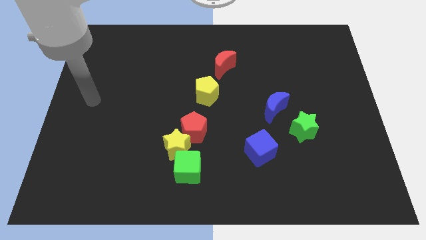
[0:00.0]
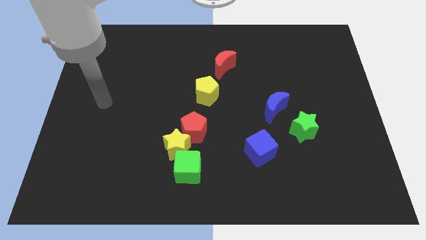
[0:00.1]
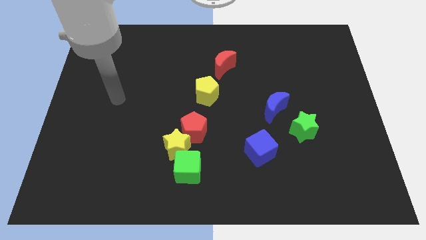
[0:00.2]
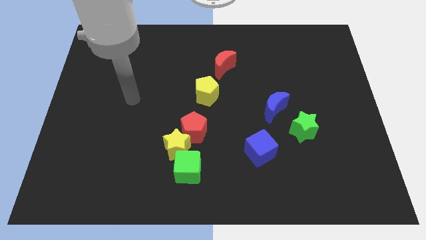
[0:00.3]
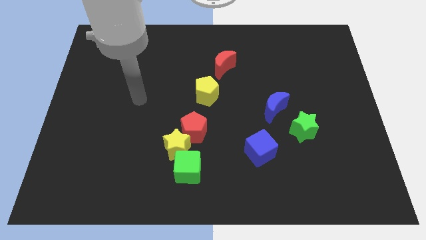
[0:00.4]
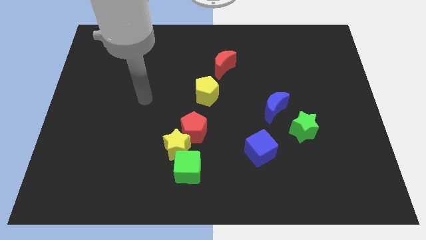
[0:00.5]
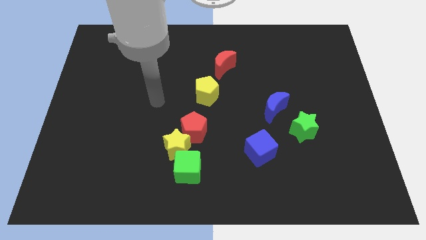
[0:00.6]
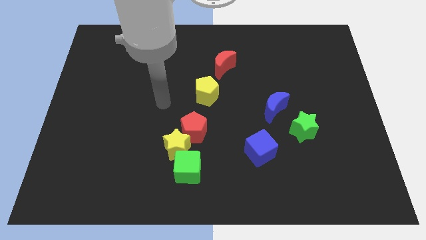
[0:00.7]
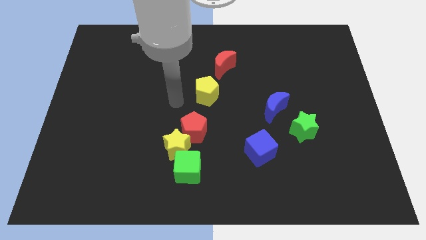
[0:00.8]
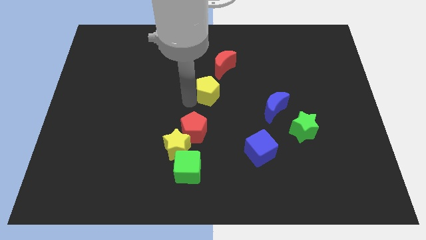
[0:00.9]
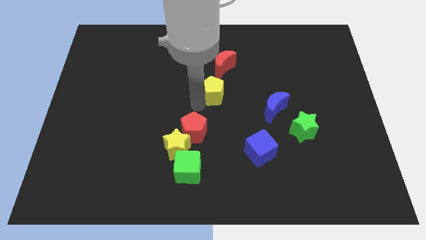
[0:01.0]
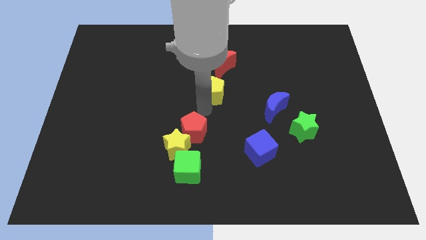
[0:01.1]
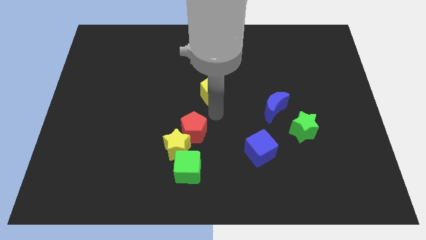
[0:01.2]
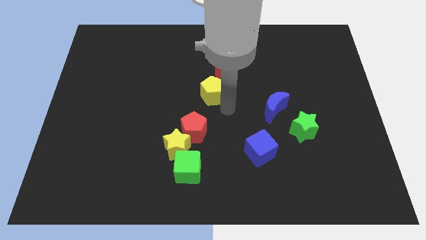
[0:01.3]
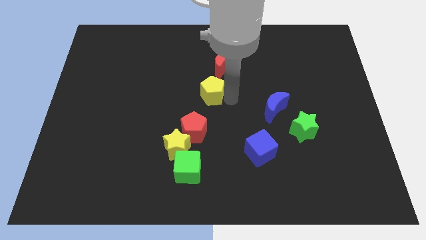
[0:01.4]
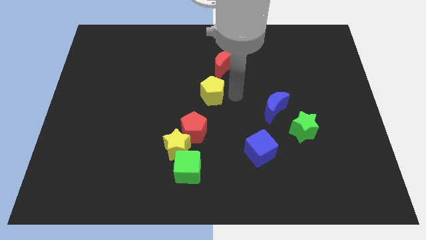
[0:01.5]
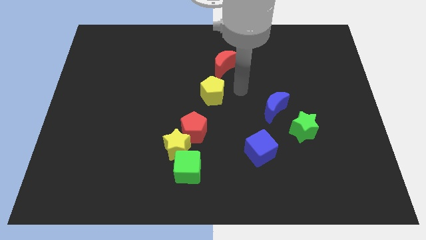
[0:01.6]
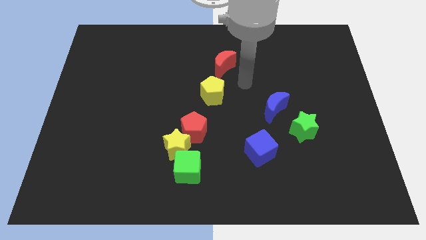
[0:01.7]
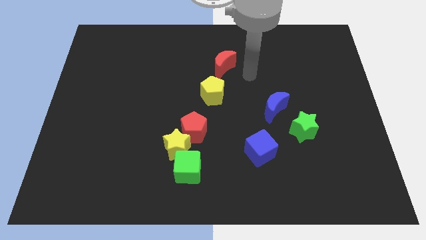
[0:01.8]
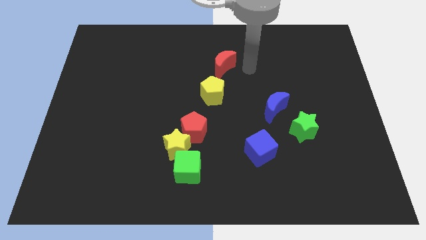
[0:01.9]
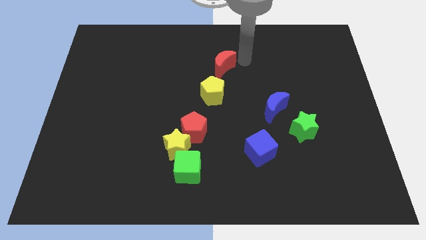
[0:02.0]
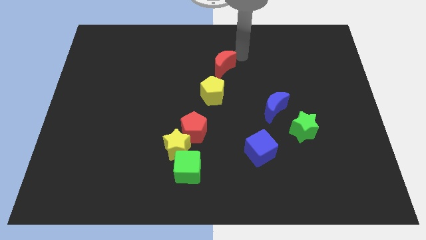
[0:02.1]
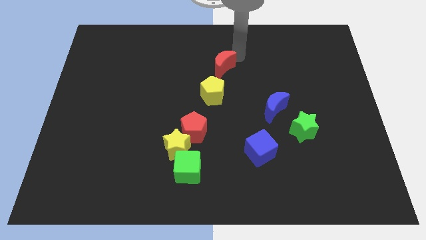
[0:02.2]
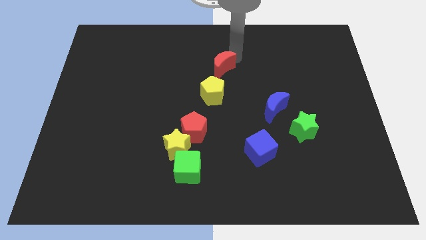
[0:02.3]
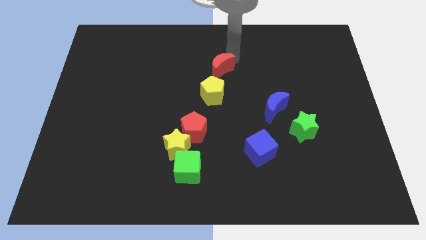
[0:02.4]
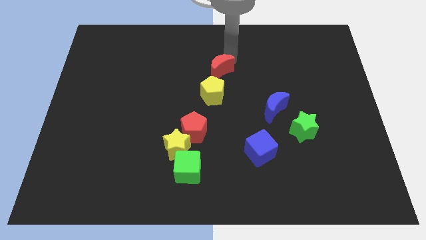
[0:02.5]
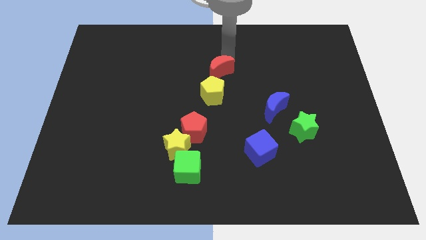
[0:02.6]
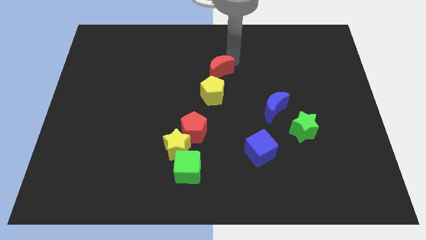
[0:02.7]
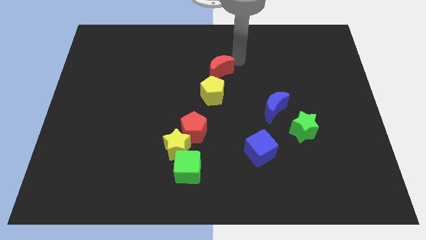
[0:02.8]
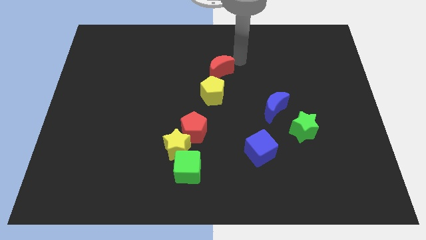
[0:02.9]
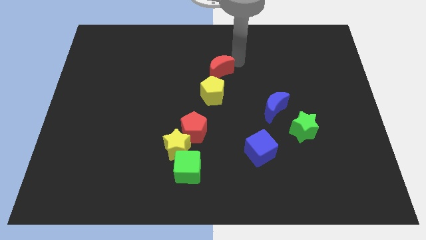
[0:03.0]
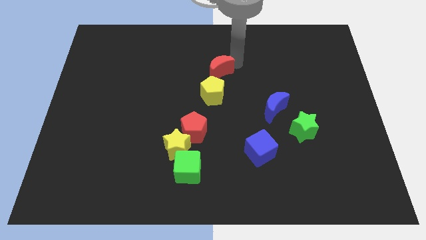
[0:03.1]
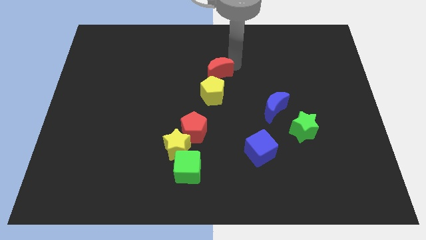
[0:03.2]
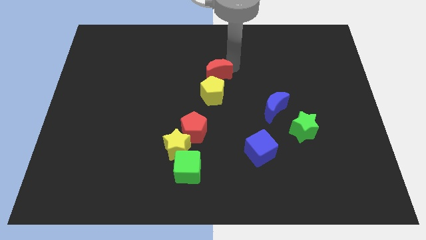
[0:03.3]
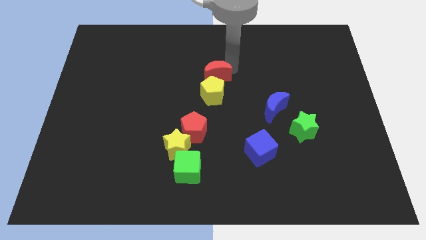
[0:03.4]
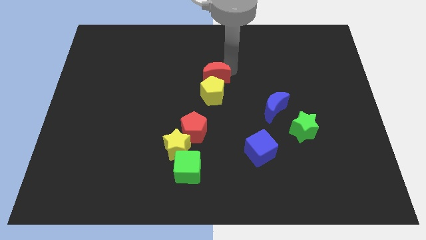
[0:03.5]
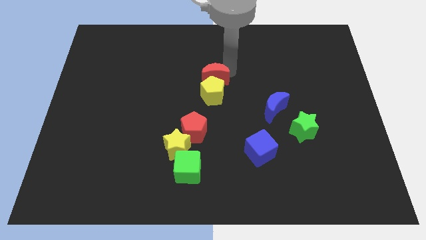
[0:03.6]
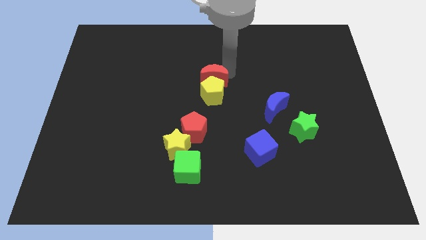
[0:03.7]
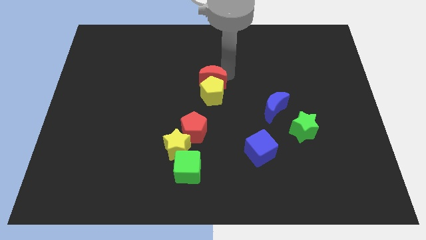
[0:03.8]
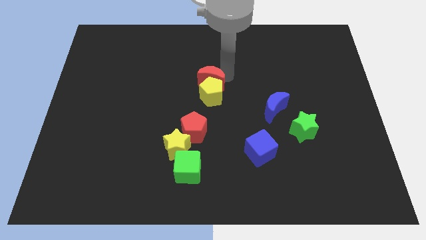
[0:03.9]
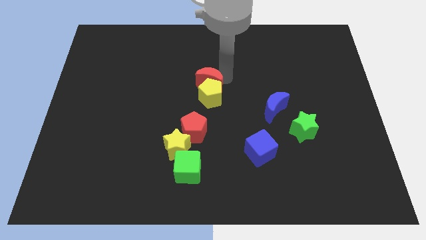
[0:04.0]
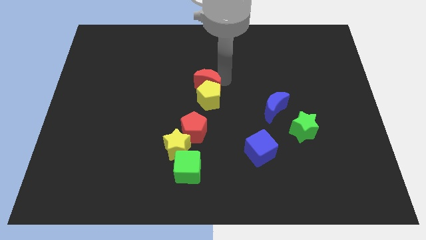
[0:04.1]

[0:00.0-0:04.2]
move the red moon downwards and left slightly

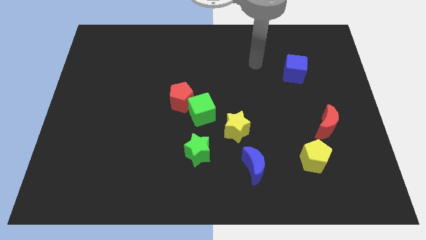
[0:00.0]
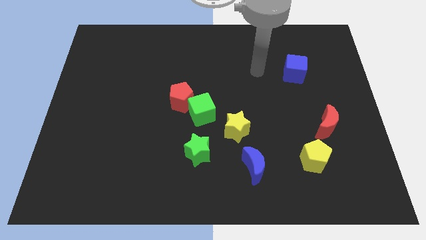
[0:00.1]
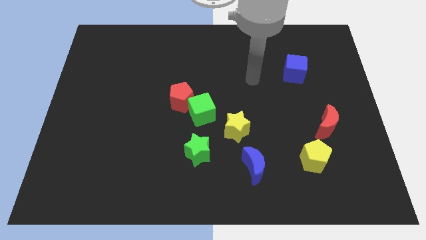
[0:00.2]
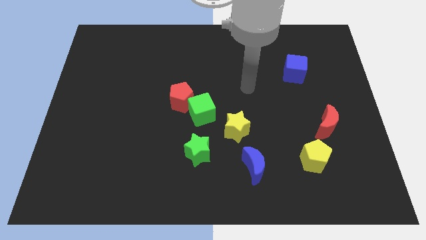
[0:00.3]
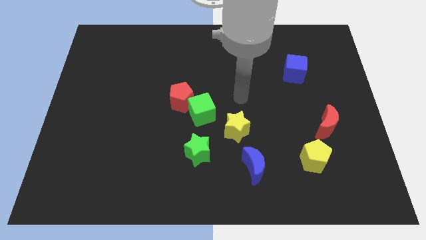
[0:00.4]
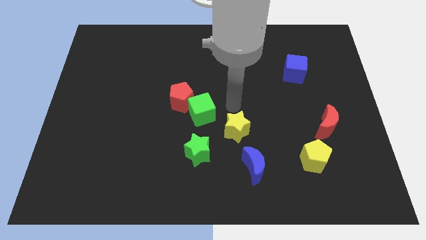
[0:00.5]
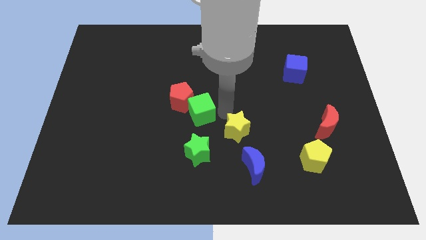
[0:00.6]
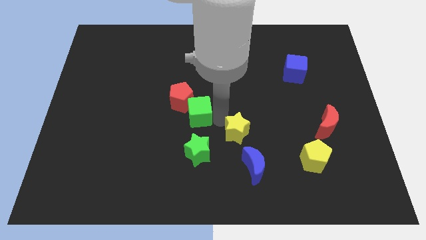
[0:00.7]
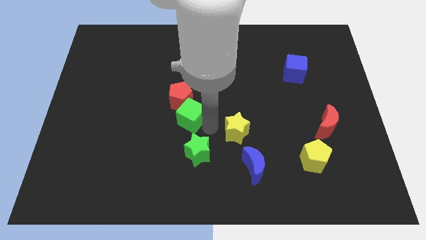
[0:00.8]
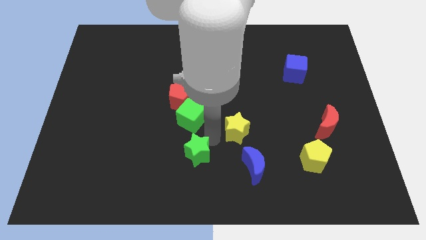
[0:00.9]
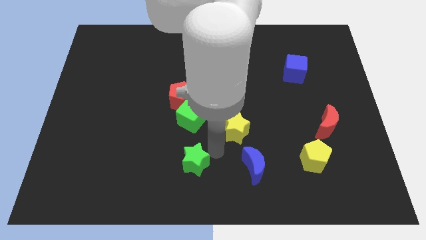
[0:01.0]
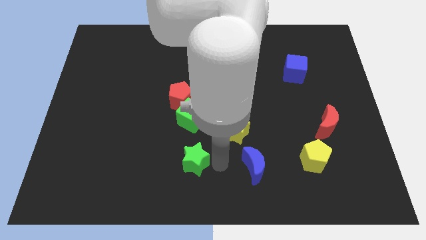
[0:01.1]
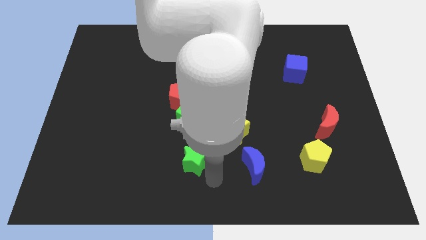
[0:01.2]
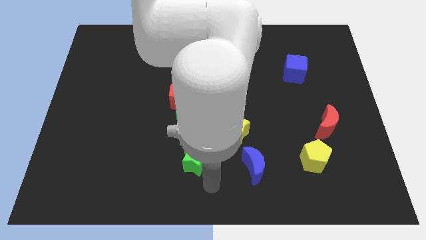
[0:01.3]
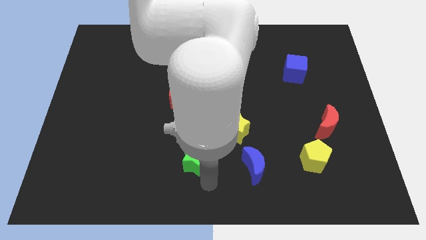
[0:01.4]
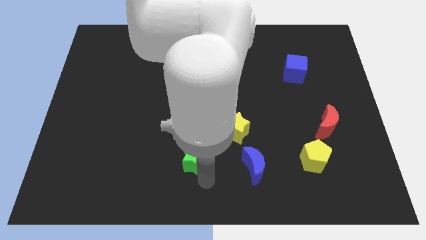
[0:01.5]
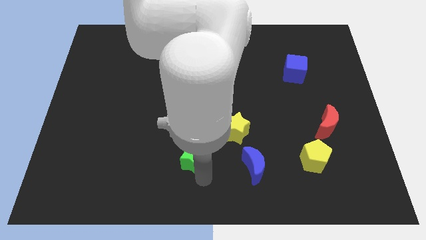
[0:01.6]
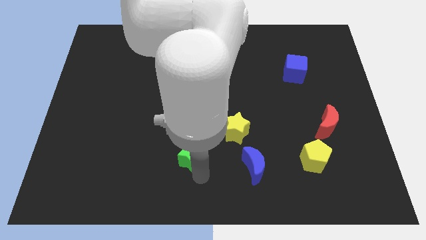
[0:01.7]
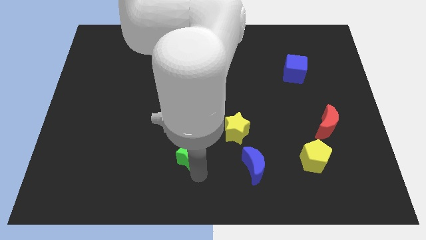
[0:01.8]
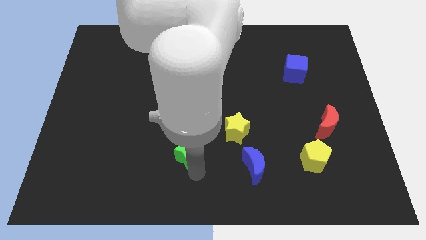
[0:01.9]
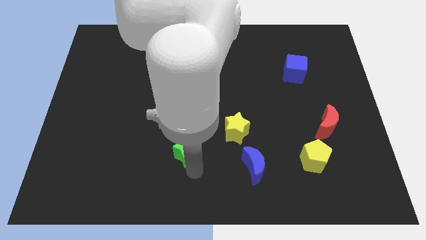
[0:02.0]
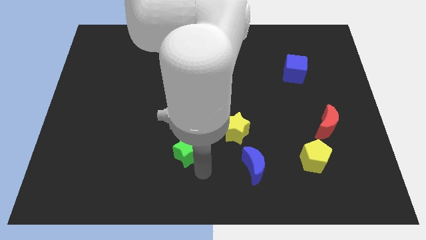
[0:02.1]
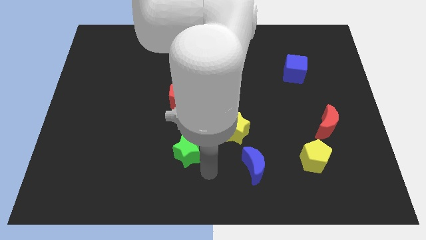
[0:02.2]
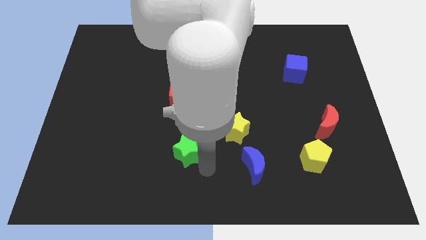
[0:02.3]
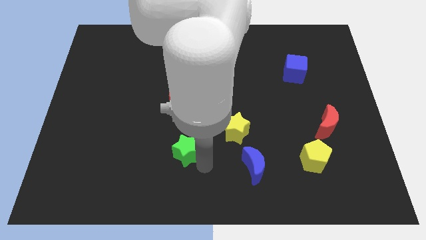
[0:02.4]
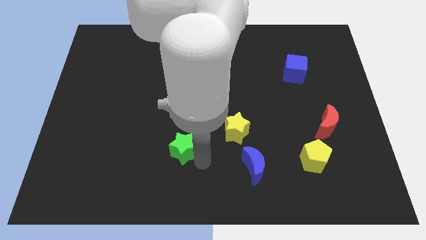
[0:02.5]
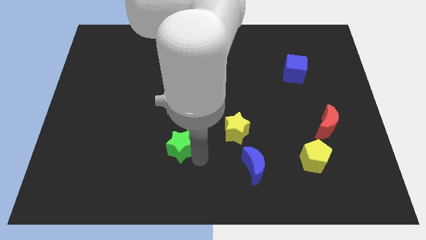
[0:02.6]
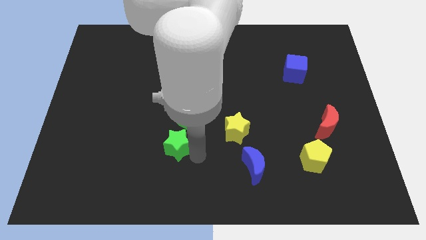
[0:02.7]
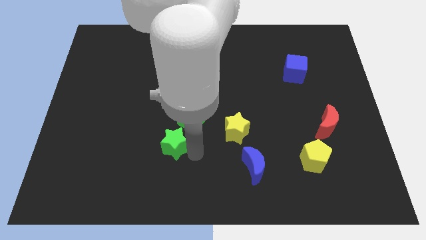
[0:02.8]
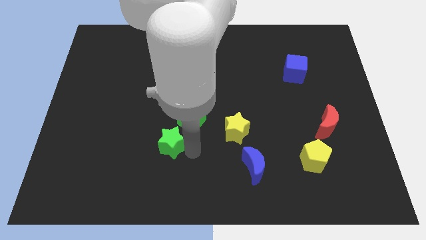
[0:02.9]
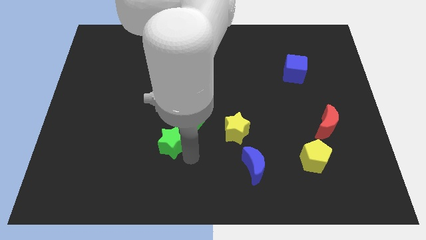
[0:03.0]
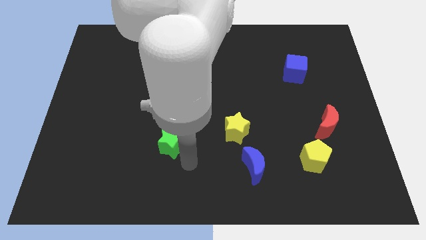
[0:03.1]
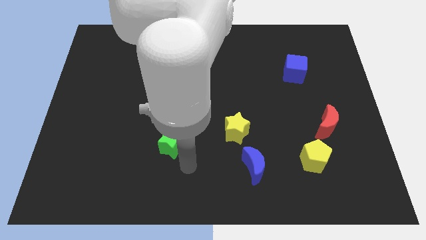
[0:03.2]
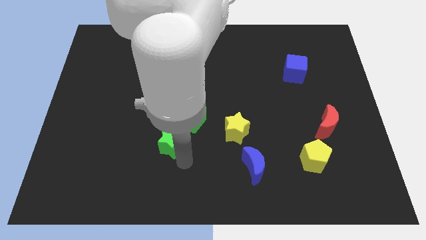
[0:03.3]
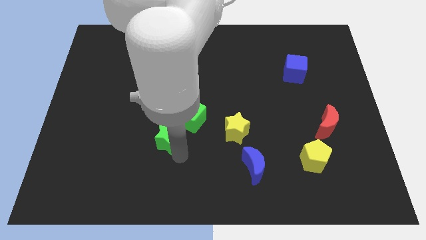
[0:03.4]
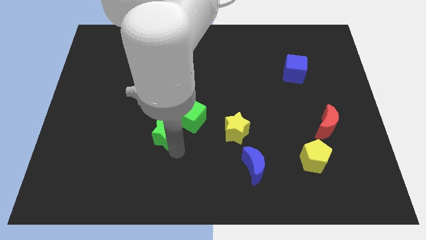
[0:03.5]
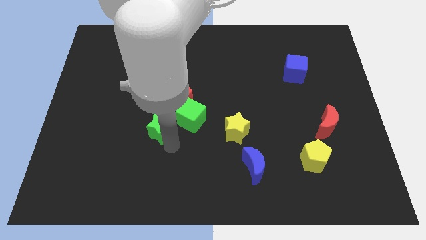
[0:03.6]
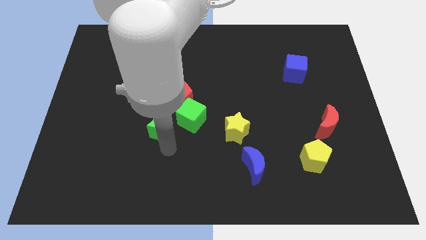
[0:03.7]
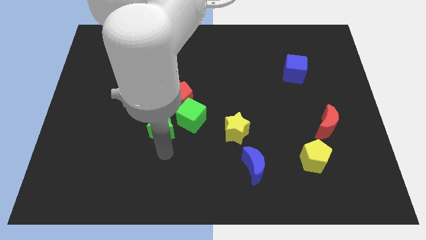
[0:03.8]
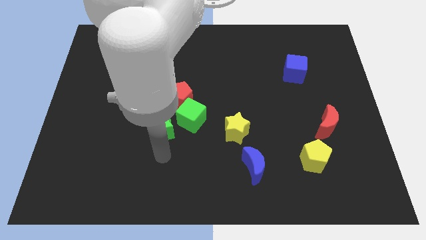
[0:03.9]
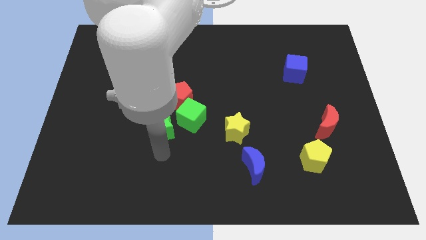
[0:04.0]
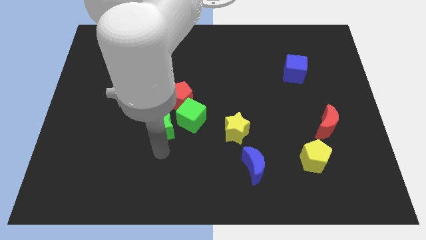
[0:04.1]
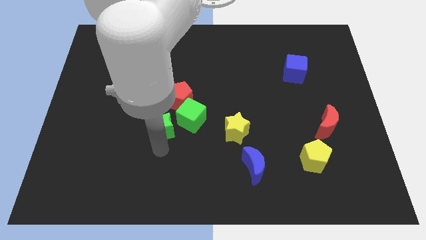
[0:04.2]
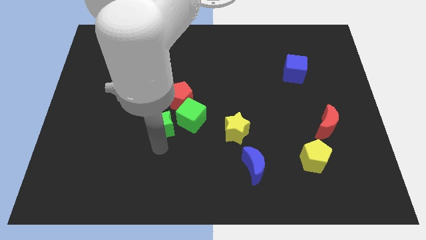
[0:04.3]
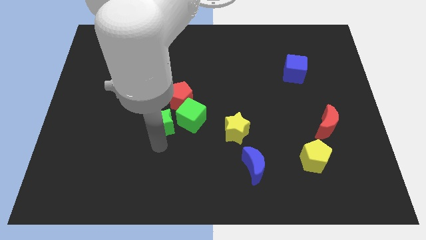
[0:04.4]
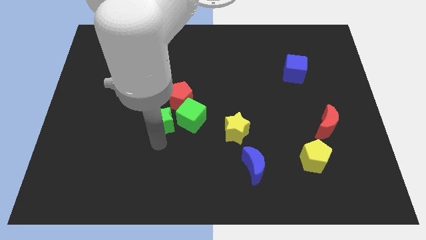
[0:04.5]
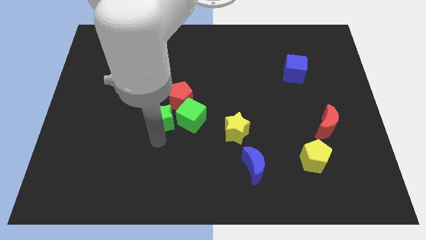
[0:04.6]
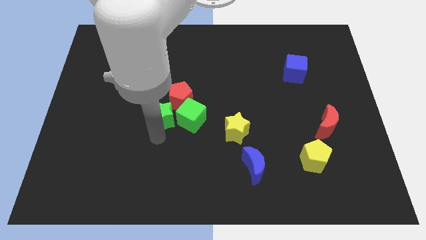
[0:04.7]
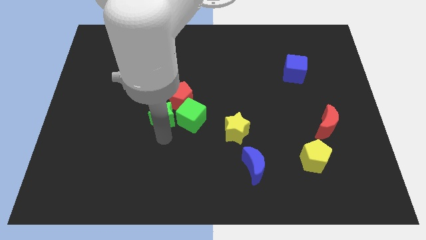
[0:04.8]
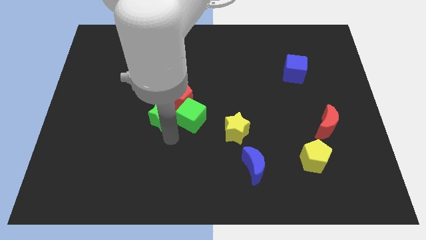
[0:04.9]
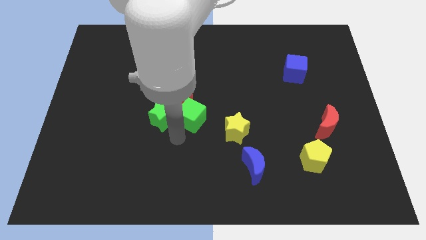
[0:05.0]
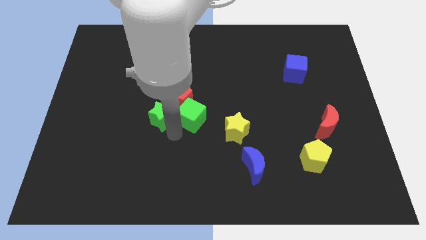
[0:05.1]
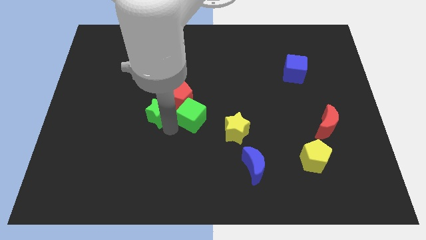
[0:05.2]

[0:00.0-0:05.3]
slide the green star upwards a little bit
